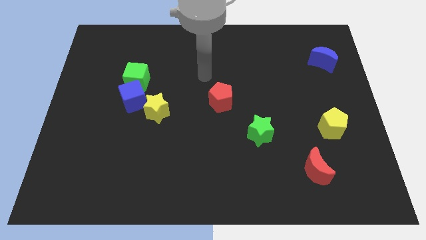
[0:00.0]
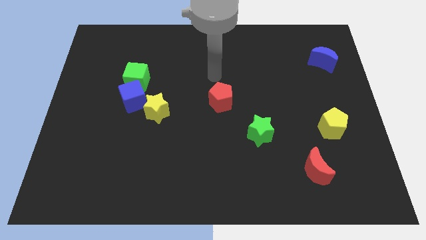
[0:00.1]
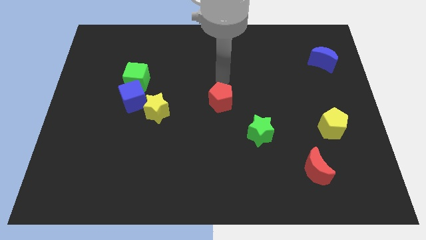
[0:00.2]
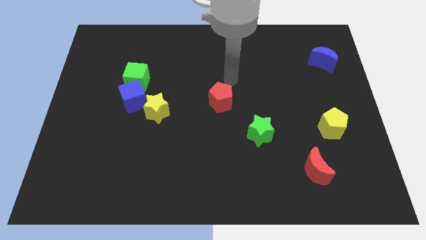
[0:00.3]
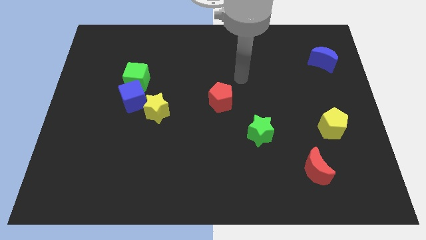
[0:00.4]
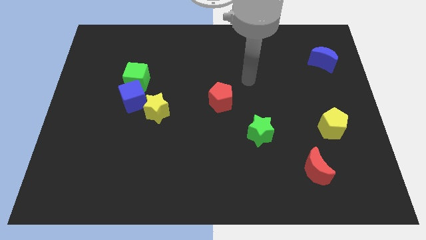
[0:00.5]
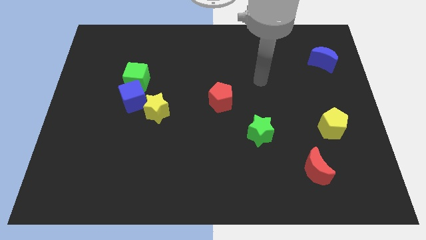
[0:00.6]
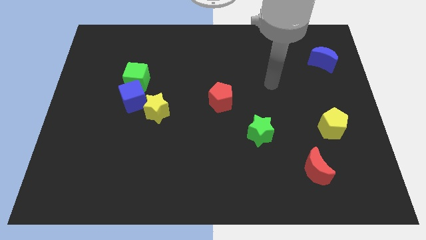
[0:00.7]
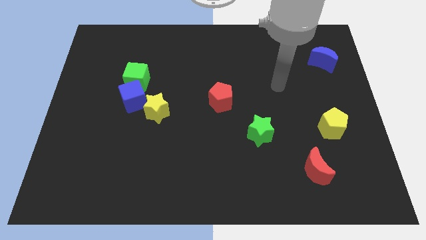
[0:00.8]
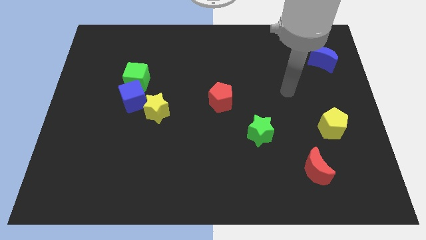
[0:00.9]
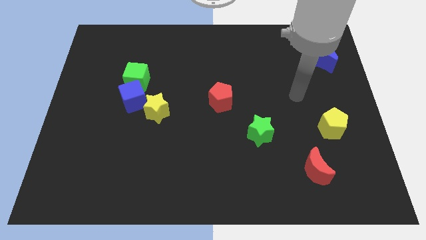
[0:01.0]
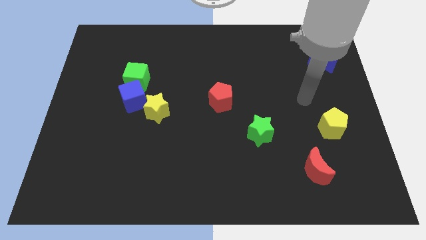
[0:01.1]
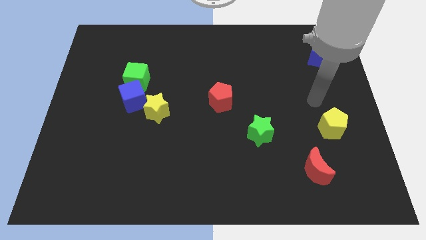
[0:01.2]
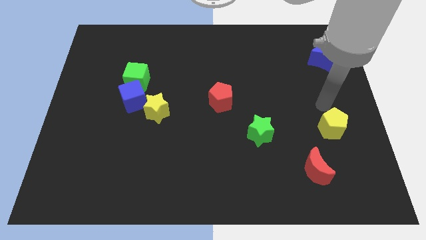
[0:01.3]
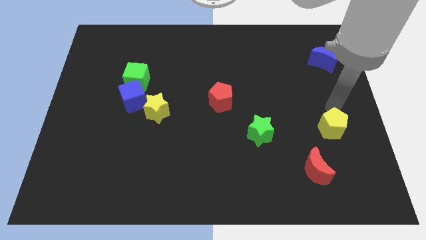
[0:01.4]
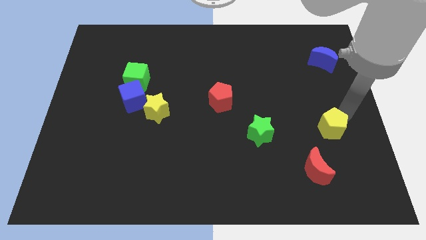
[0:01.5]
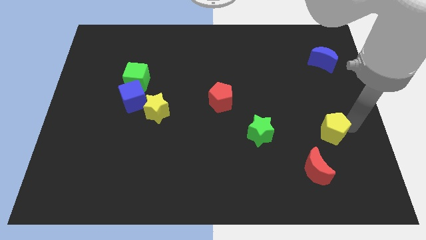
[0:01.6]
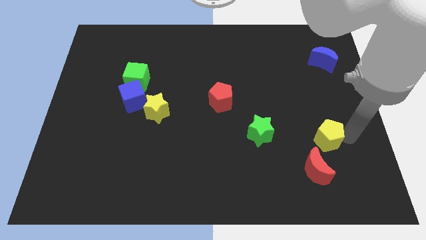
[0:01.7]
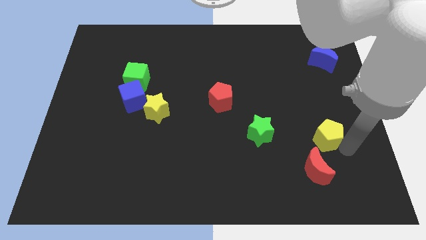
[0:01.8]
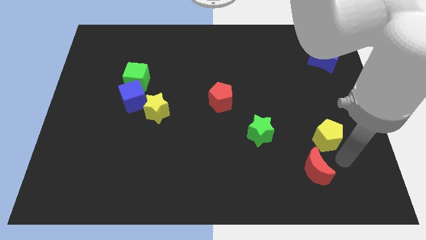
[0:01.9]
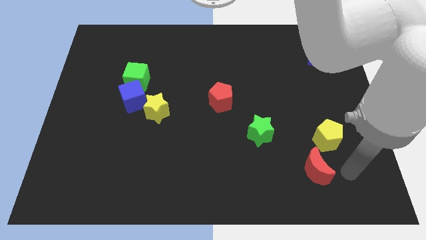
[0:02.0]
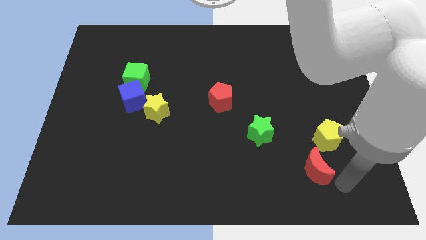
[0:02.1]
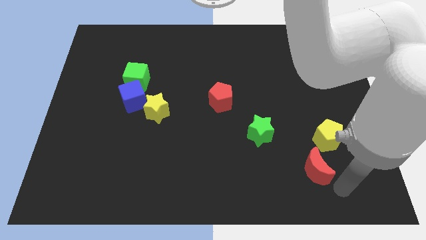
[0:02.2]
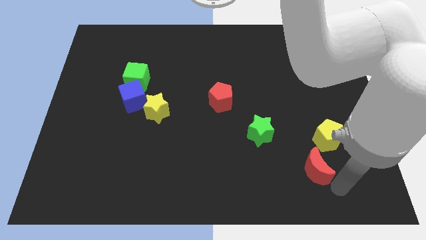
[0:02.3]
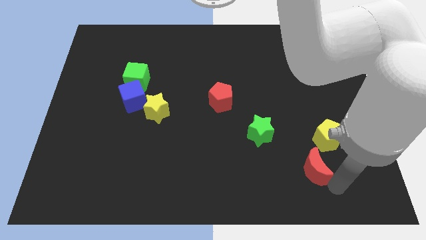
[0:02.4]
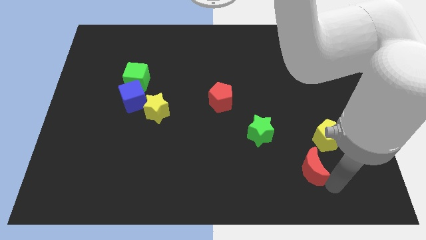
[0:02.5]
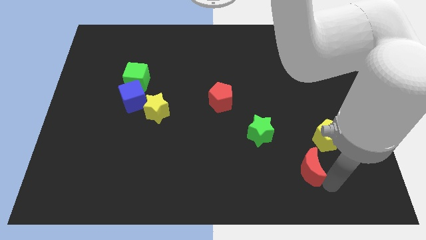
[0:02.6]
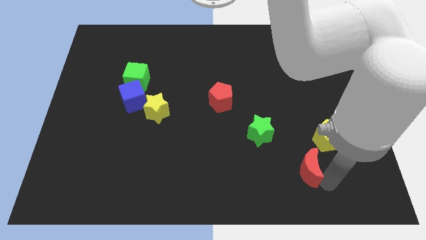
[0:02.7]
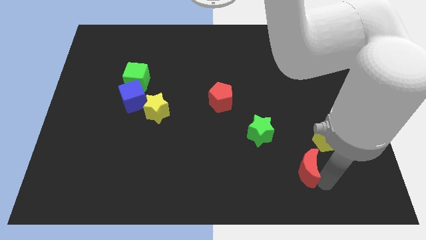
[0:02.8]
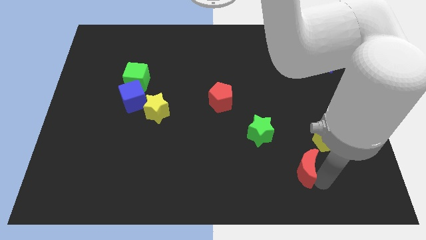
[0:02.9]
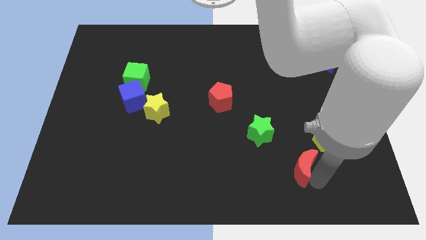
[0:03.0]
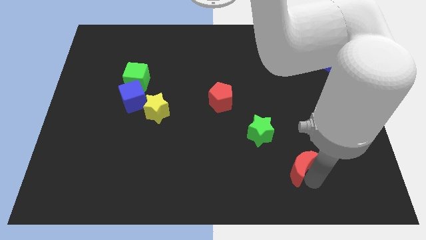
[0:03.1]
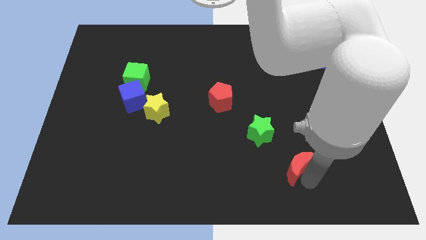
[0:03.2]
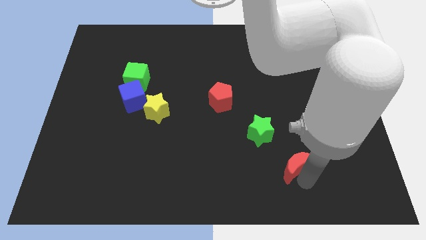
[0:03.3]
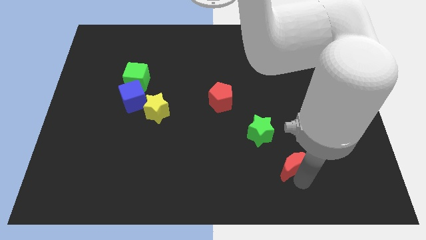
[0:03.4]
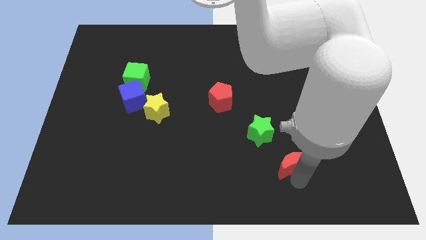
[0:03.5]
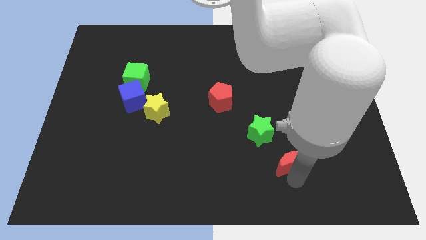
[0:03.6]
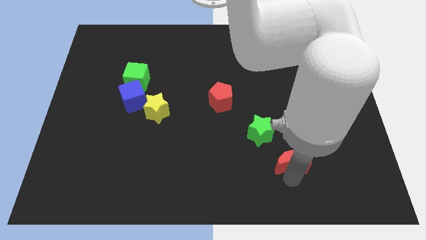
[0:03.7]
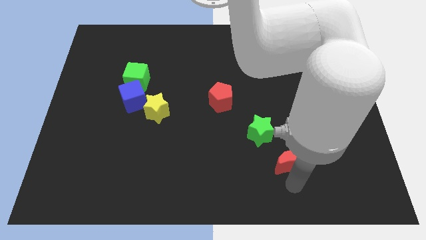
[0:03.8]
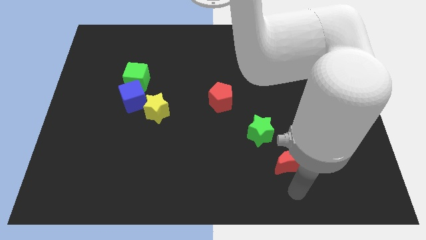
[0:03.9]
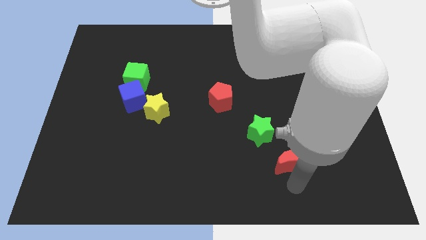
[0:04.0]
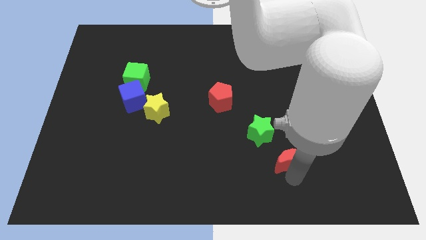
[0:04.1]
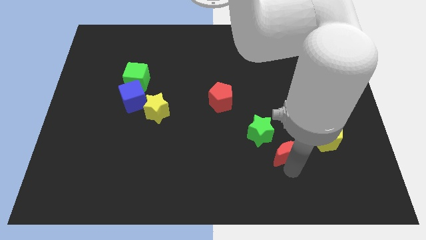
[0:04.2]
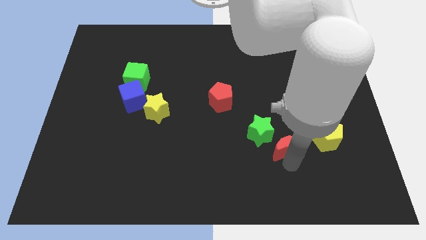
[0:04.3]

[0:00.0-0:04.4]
move the red moon upwards and then to the left a little

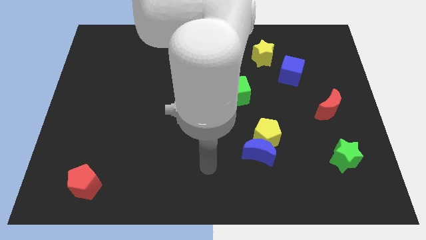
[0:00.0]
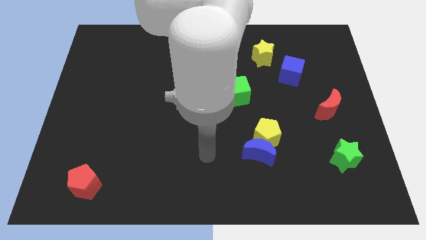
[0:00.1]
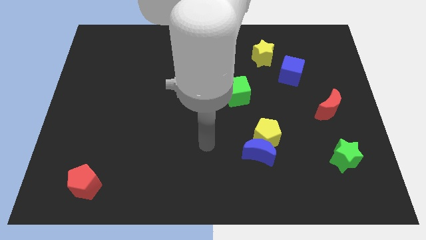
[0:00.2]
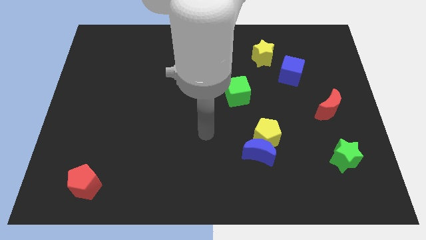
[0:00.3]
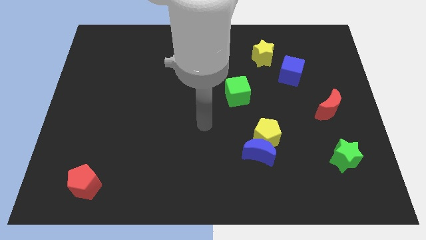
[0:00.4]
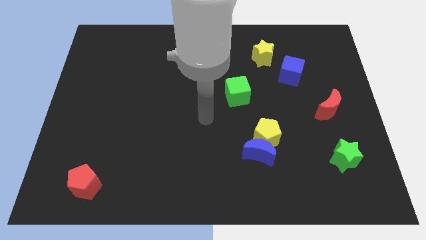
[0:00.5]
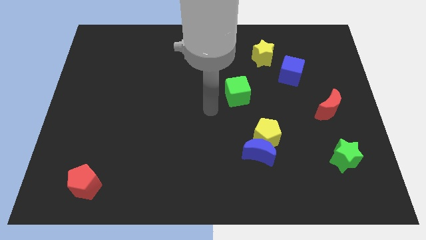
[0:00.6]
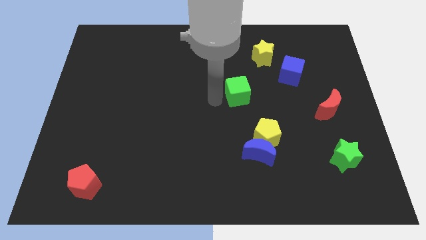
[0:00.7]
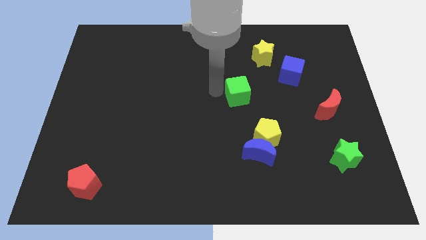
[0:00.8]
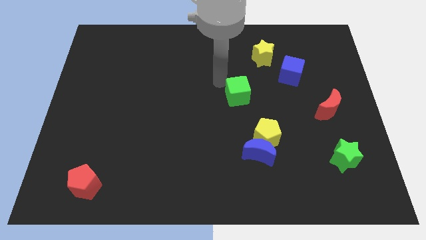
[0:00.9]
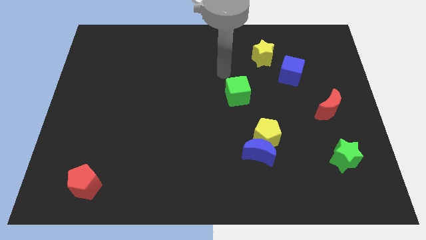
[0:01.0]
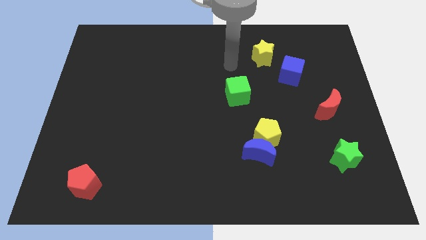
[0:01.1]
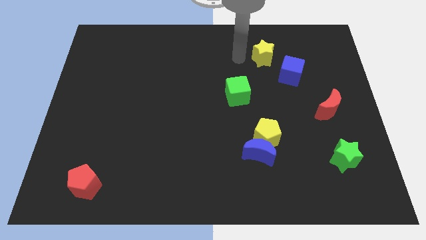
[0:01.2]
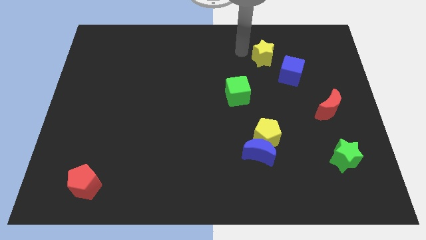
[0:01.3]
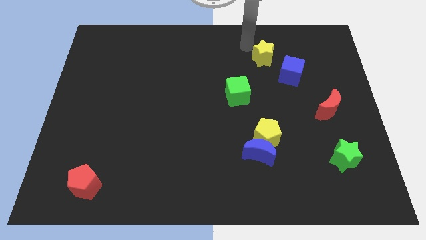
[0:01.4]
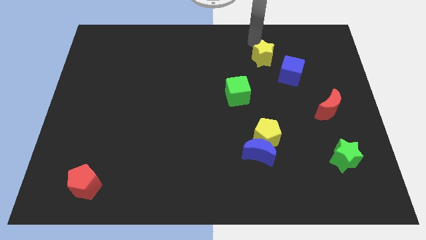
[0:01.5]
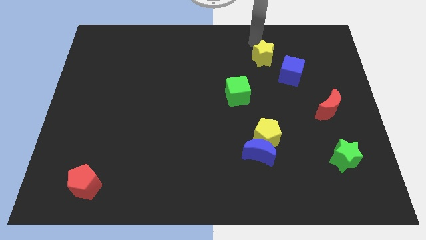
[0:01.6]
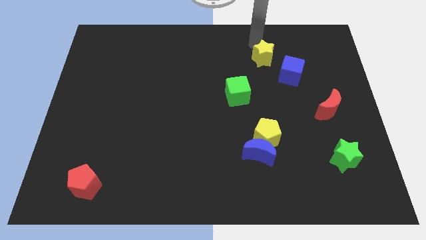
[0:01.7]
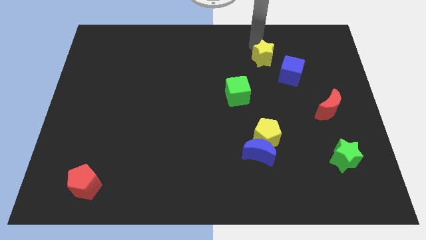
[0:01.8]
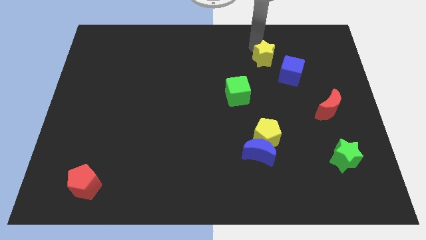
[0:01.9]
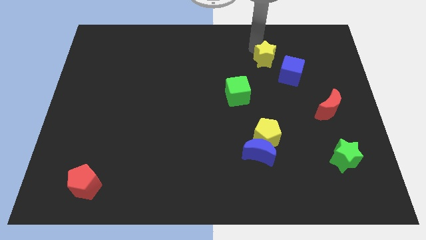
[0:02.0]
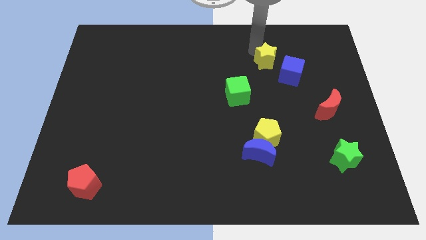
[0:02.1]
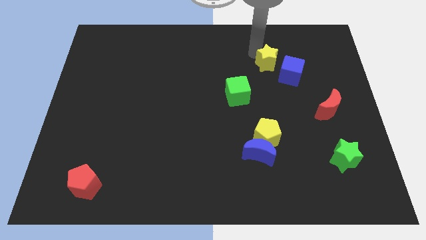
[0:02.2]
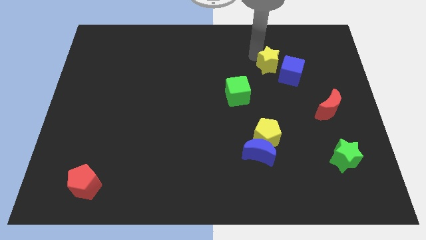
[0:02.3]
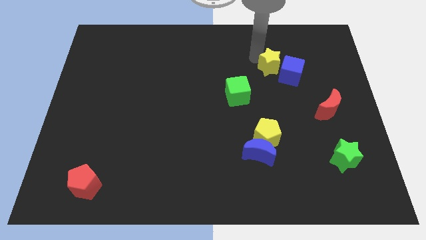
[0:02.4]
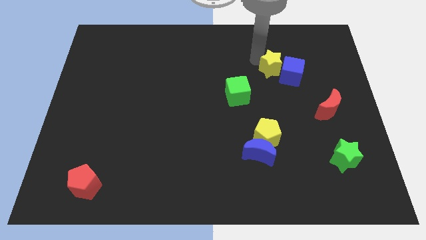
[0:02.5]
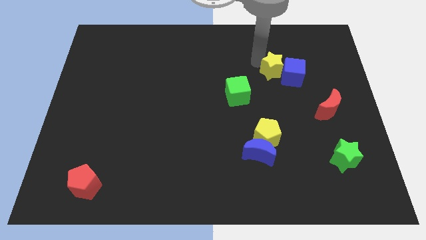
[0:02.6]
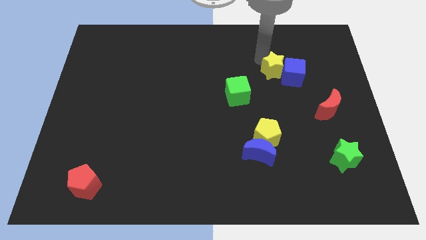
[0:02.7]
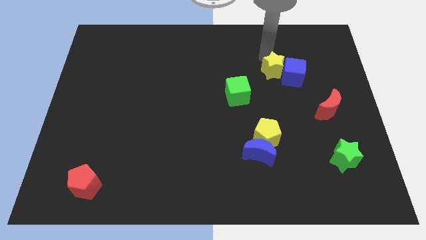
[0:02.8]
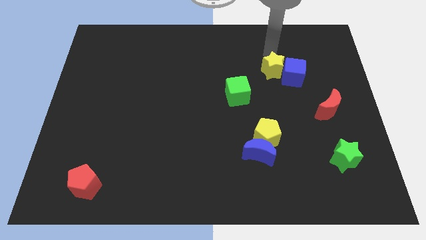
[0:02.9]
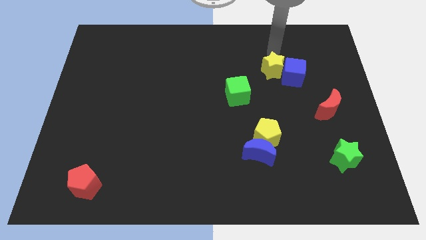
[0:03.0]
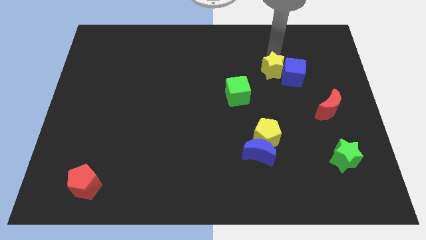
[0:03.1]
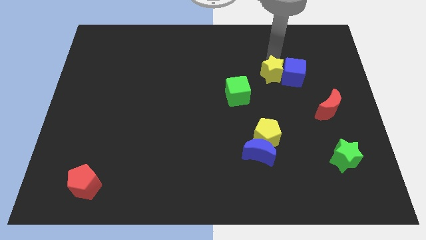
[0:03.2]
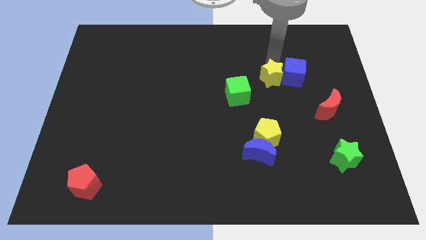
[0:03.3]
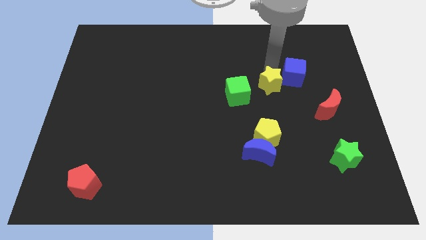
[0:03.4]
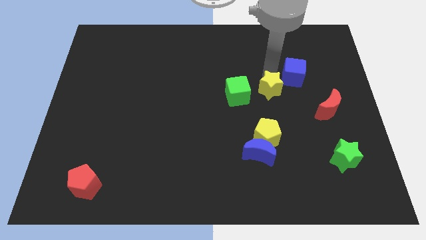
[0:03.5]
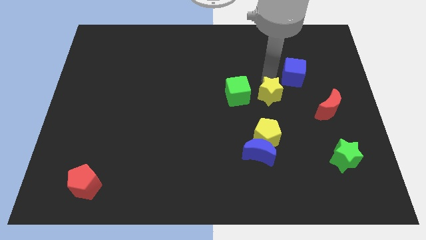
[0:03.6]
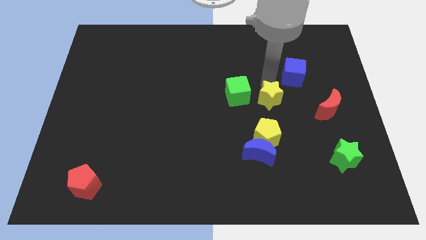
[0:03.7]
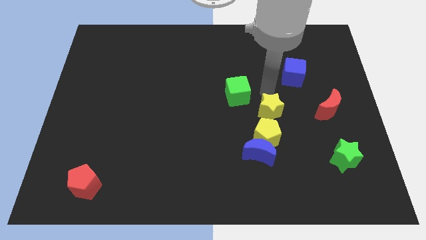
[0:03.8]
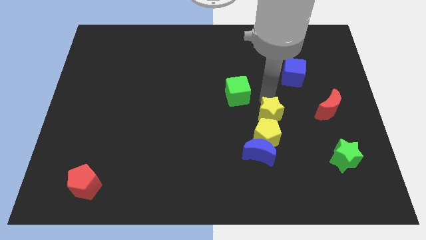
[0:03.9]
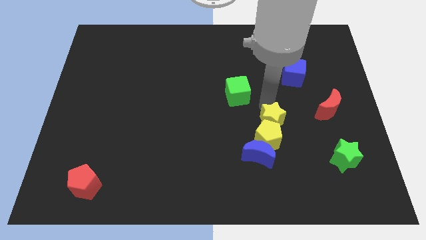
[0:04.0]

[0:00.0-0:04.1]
slide the yellow star downwards
